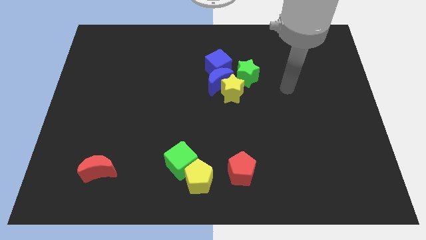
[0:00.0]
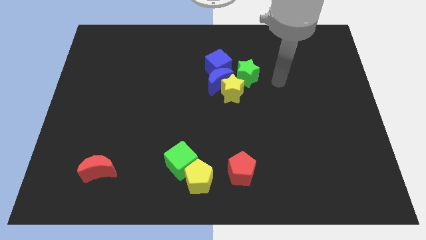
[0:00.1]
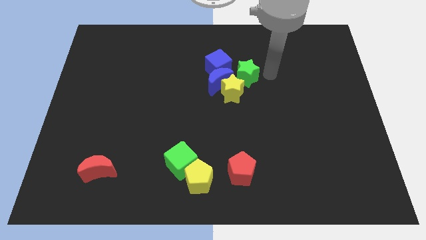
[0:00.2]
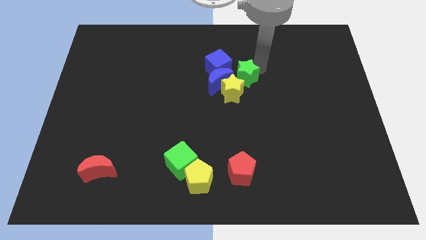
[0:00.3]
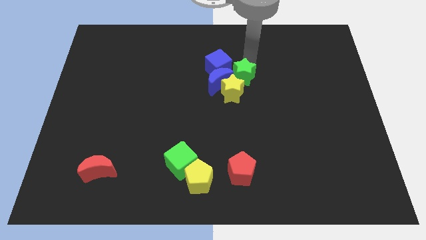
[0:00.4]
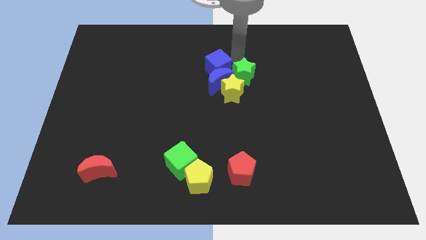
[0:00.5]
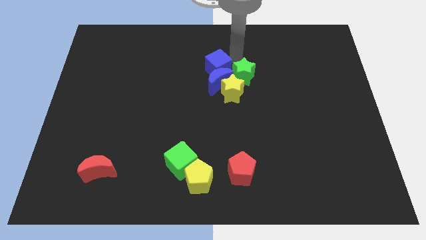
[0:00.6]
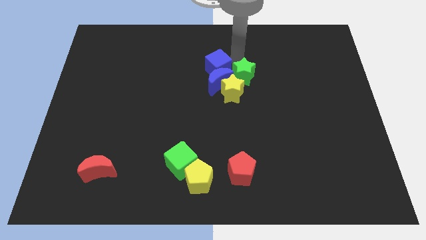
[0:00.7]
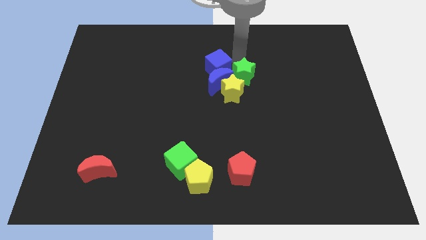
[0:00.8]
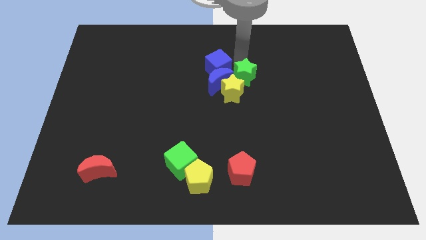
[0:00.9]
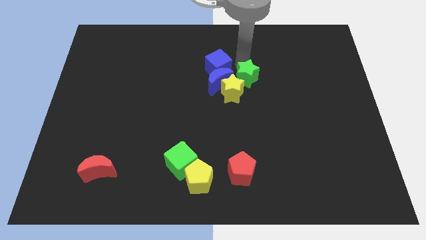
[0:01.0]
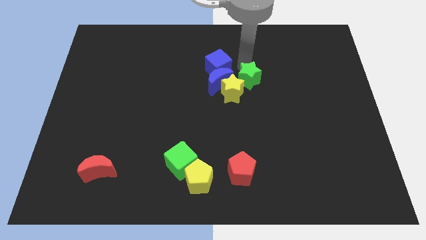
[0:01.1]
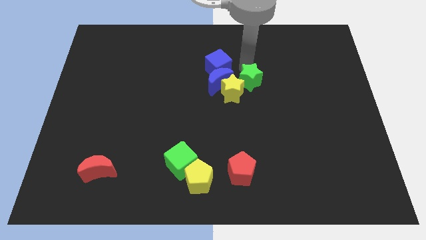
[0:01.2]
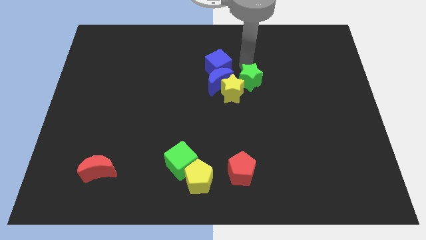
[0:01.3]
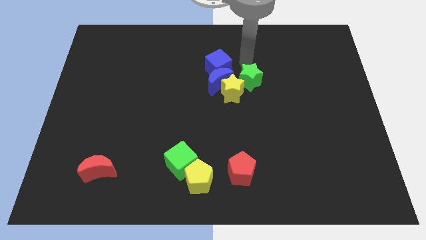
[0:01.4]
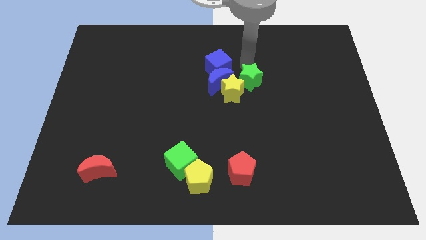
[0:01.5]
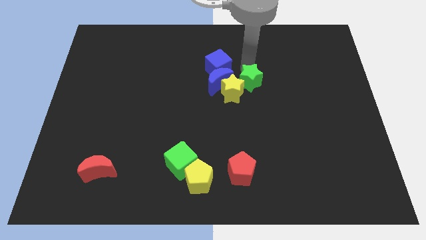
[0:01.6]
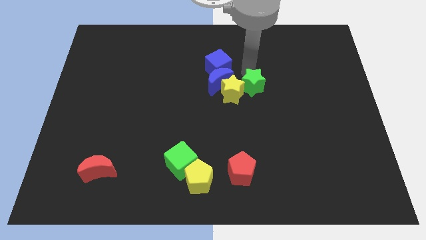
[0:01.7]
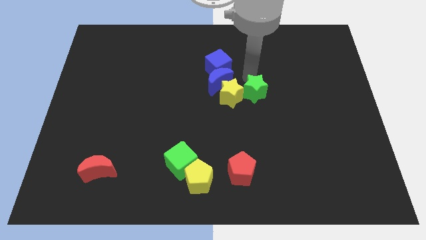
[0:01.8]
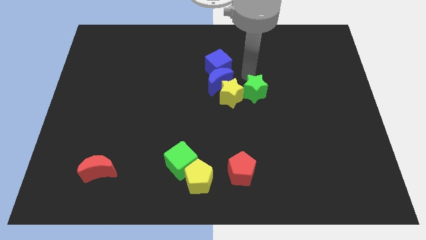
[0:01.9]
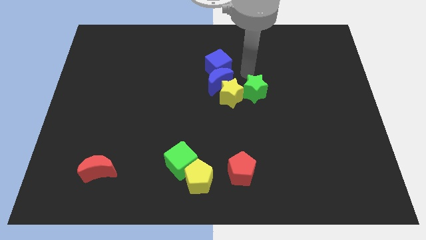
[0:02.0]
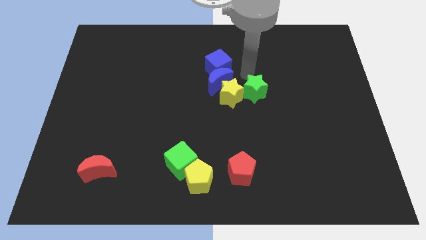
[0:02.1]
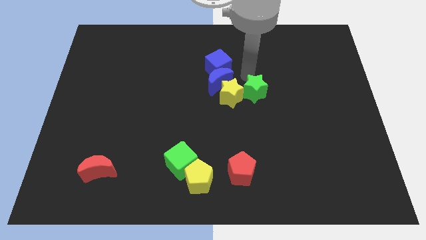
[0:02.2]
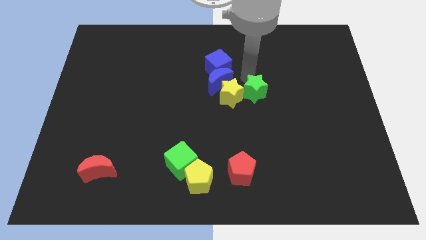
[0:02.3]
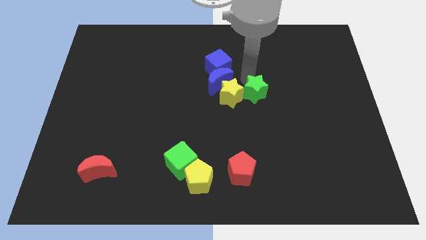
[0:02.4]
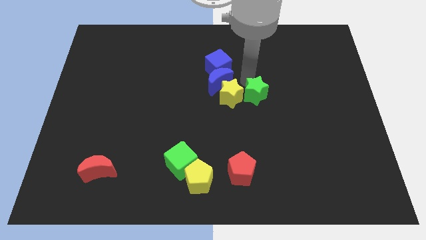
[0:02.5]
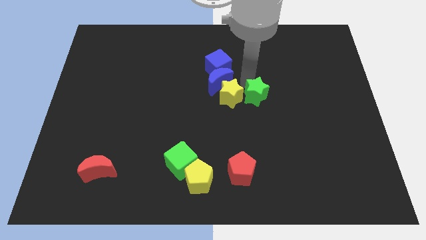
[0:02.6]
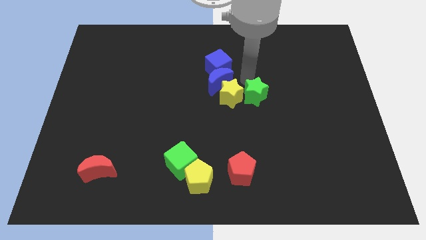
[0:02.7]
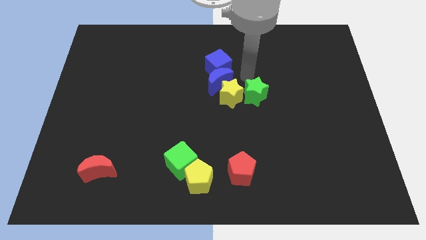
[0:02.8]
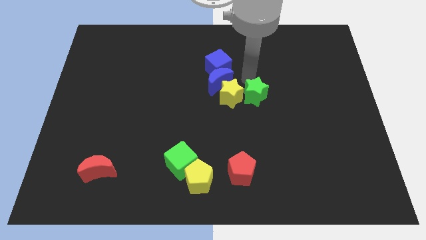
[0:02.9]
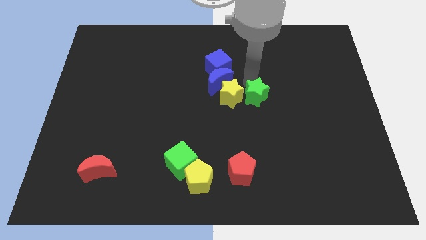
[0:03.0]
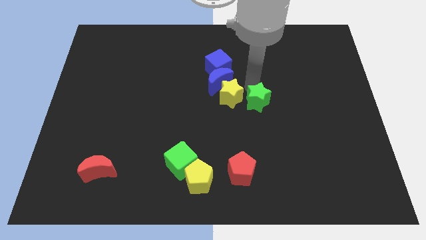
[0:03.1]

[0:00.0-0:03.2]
push the green star a bit down

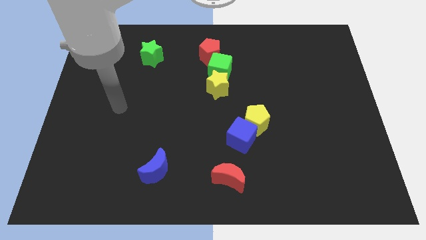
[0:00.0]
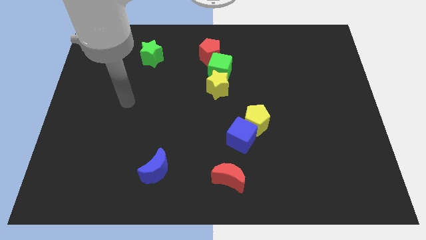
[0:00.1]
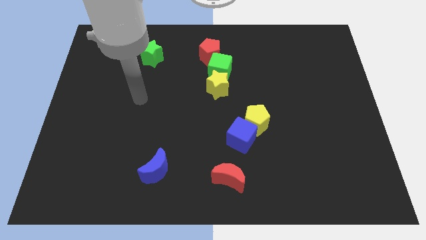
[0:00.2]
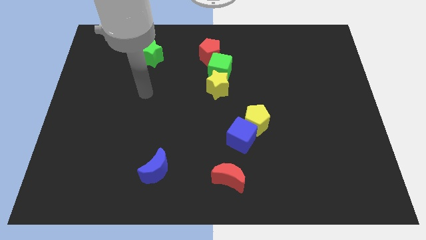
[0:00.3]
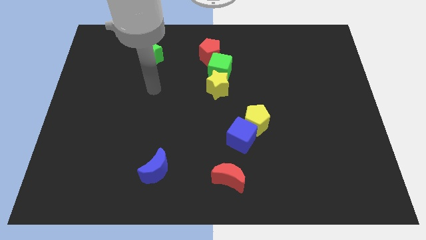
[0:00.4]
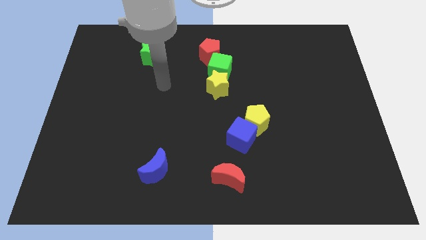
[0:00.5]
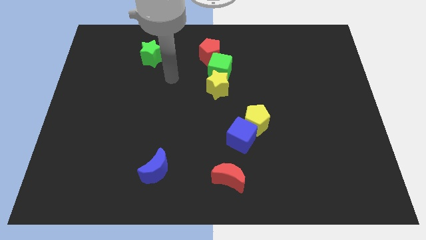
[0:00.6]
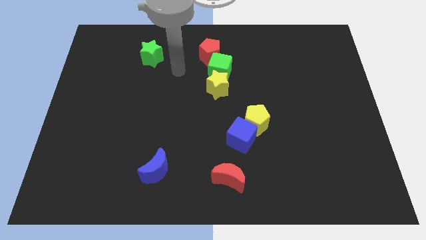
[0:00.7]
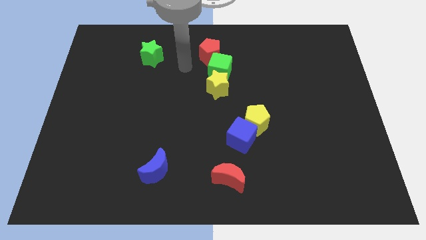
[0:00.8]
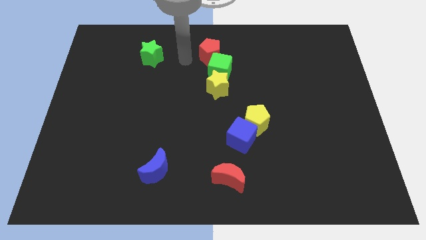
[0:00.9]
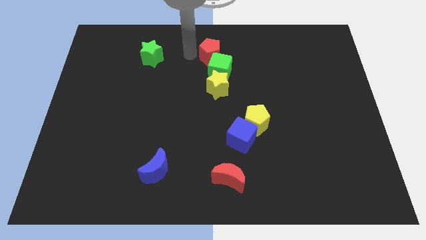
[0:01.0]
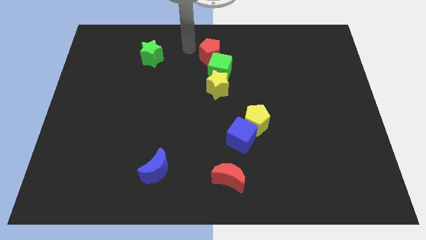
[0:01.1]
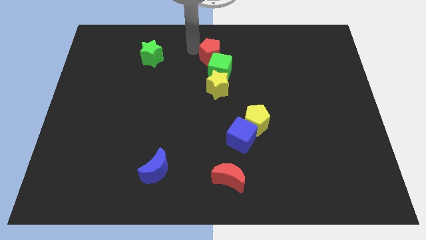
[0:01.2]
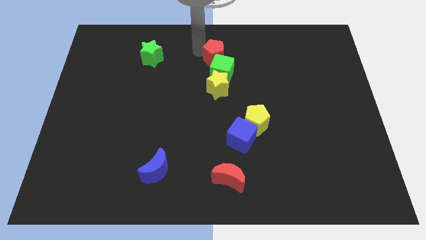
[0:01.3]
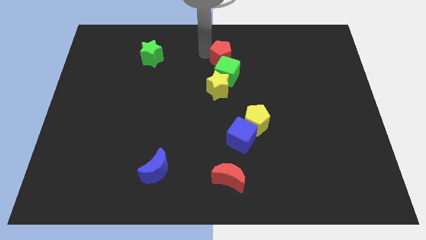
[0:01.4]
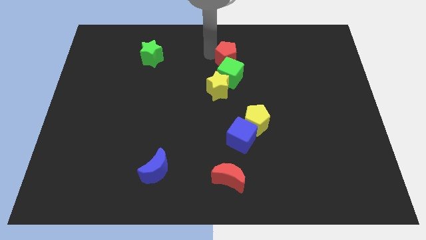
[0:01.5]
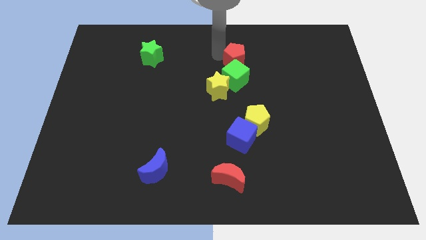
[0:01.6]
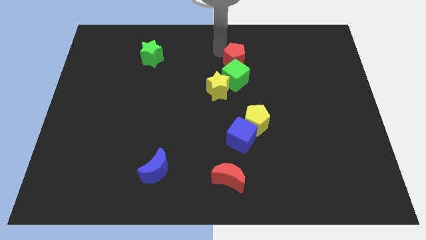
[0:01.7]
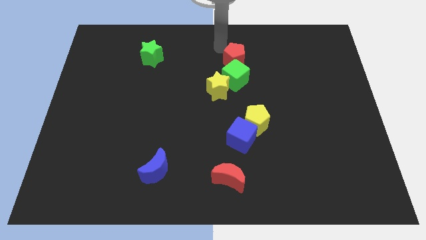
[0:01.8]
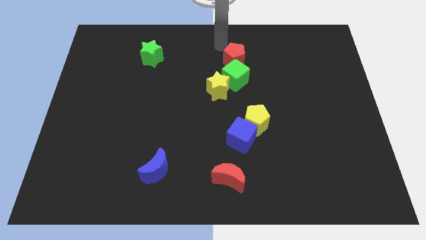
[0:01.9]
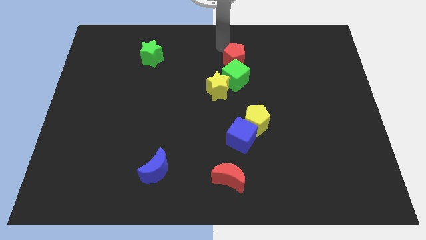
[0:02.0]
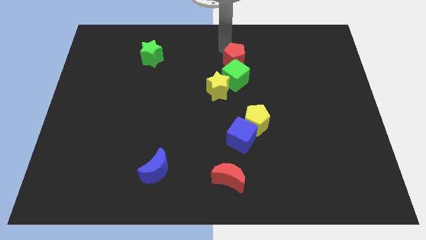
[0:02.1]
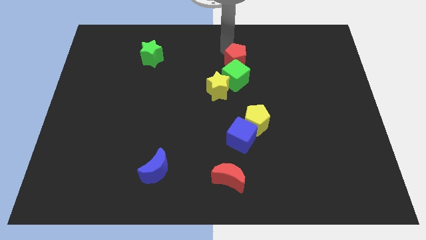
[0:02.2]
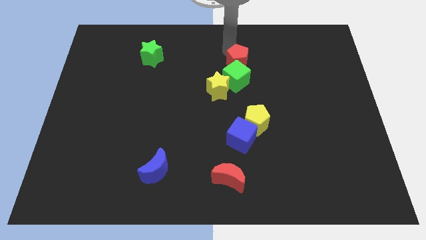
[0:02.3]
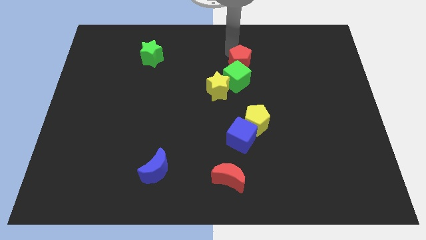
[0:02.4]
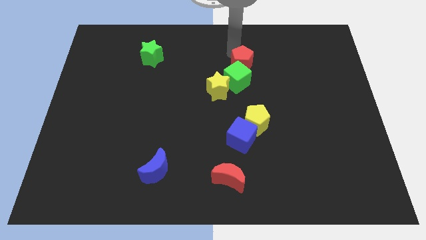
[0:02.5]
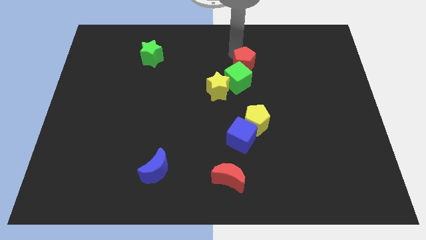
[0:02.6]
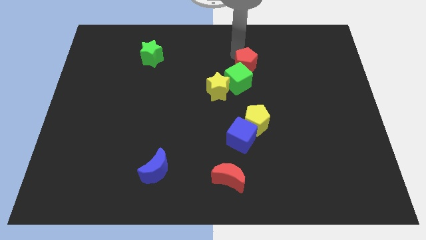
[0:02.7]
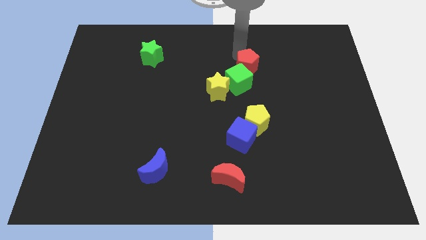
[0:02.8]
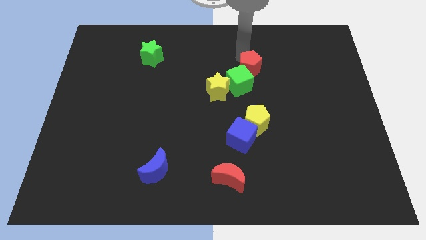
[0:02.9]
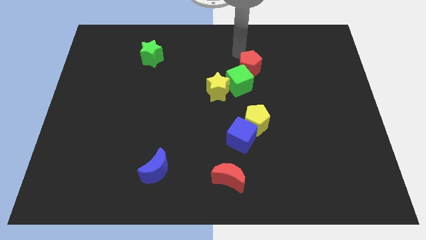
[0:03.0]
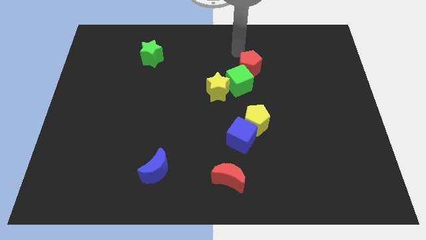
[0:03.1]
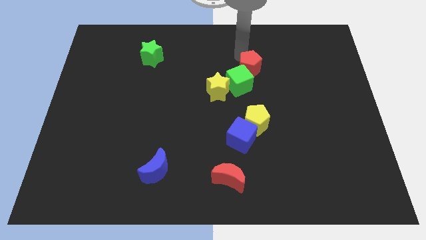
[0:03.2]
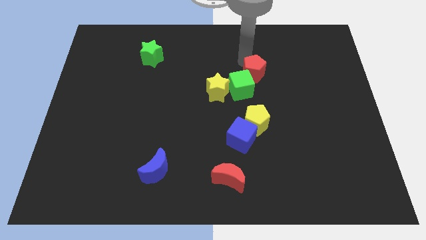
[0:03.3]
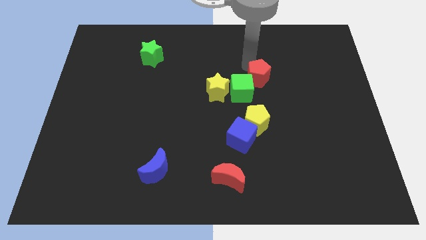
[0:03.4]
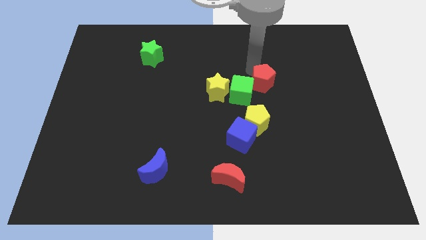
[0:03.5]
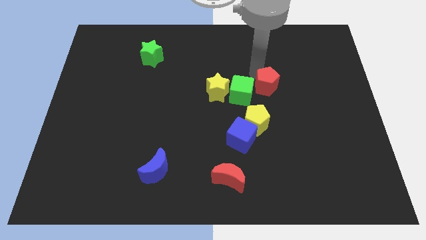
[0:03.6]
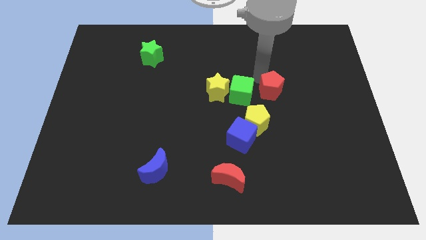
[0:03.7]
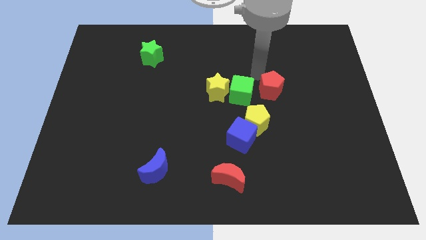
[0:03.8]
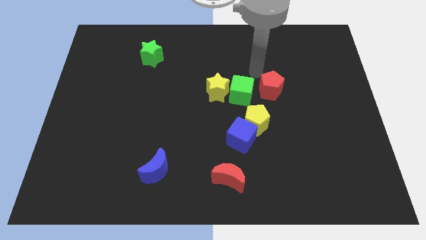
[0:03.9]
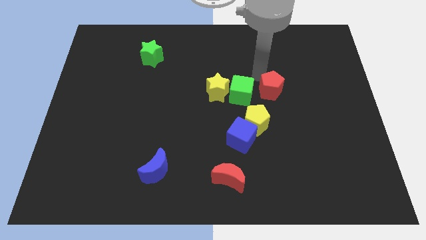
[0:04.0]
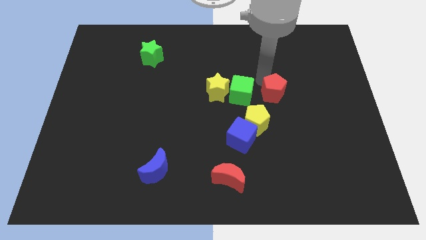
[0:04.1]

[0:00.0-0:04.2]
slide the red pentagon diagonally down and to the right

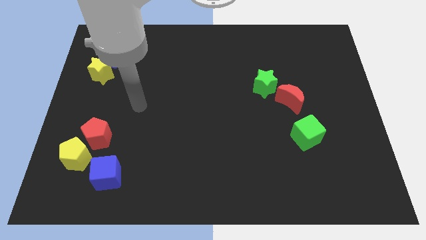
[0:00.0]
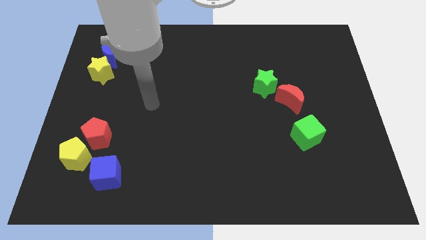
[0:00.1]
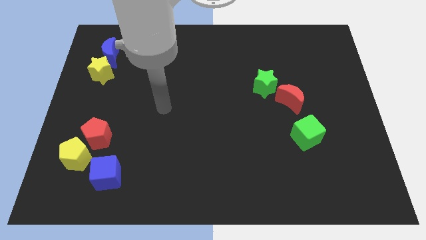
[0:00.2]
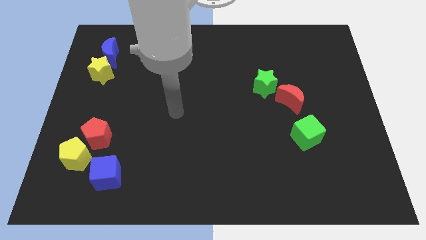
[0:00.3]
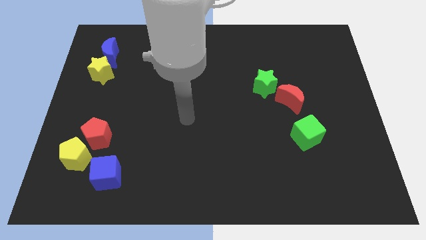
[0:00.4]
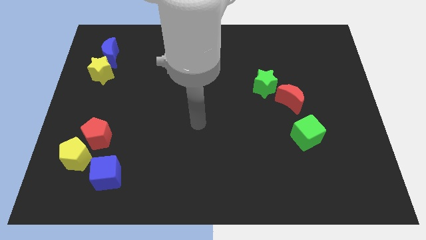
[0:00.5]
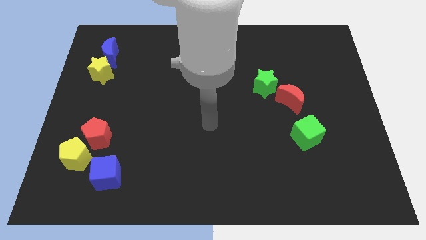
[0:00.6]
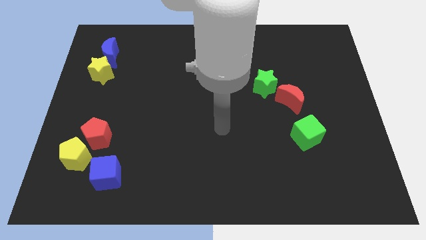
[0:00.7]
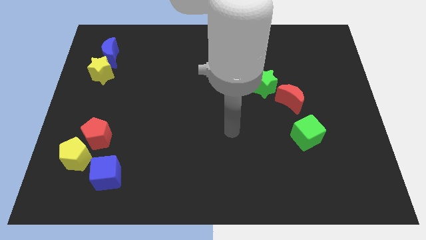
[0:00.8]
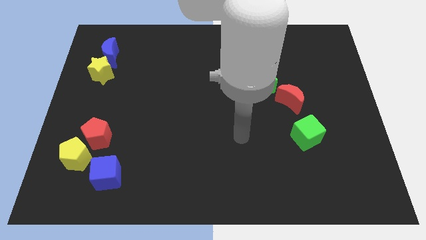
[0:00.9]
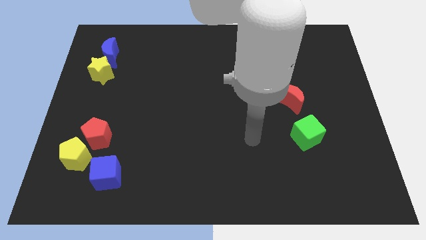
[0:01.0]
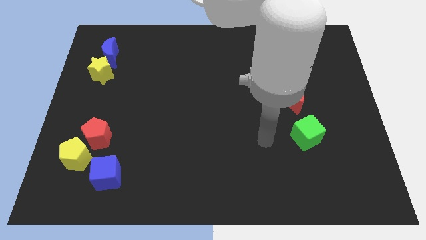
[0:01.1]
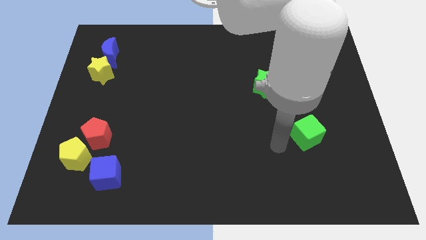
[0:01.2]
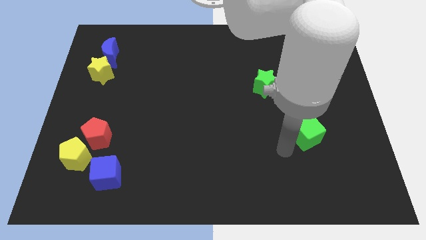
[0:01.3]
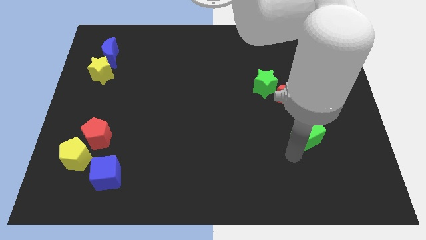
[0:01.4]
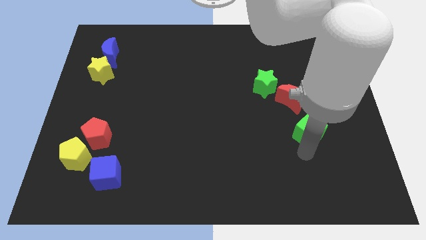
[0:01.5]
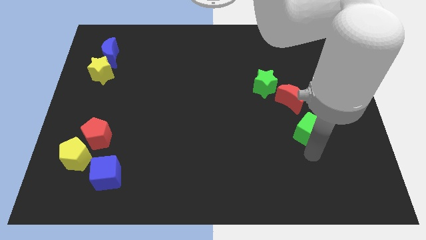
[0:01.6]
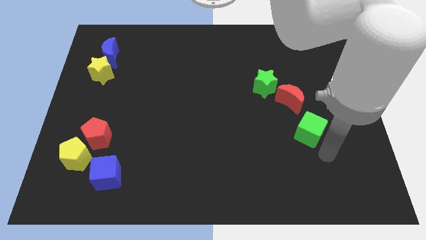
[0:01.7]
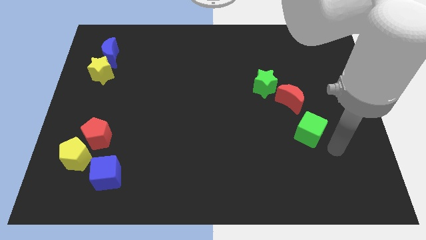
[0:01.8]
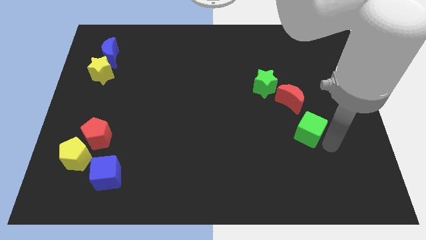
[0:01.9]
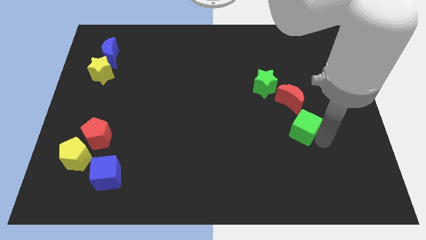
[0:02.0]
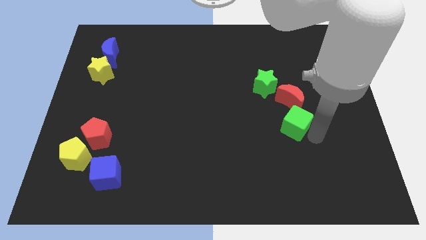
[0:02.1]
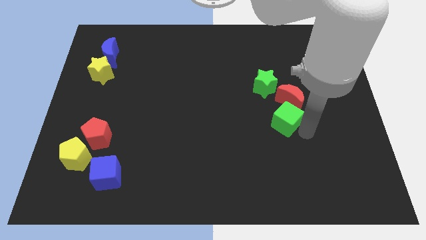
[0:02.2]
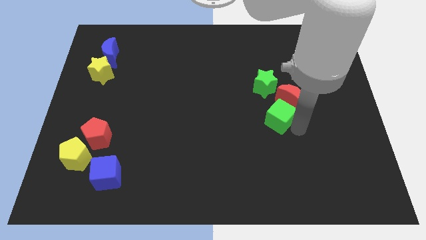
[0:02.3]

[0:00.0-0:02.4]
slide the green cube up and left a bit
